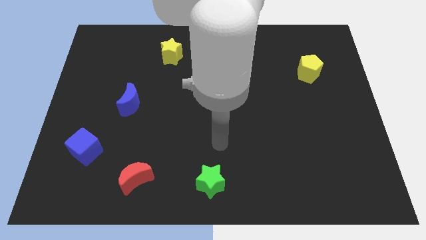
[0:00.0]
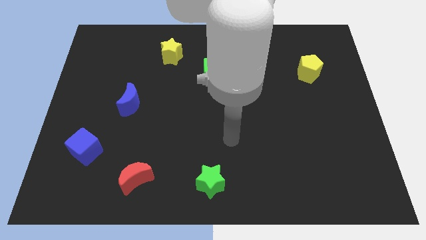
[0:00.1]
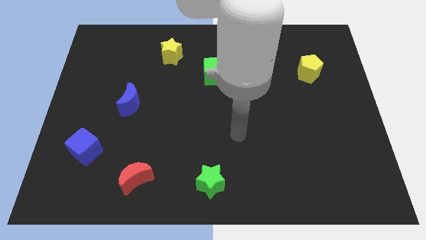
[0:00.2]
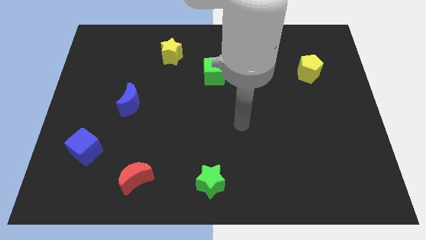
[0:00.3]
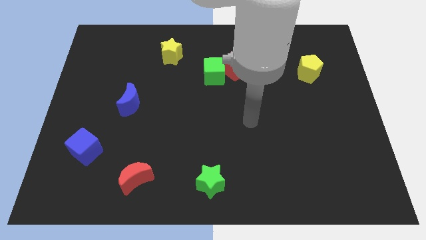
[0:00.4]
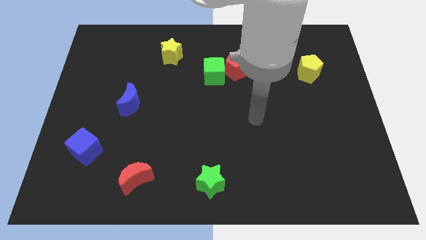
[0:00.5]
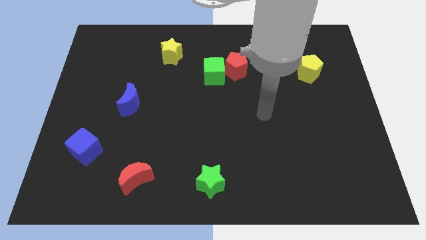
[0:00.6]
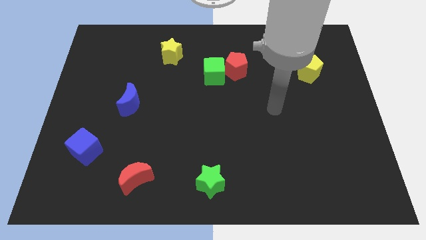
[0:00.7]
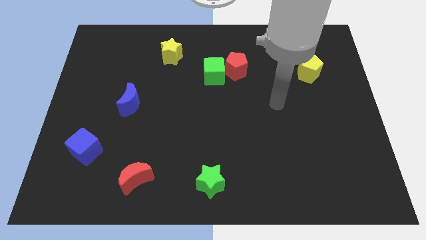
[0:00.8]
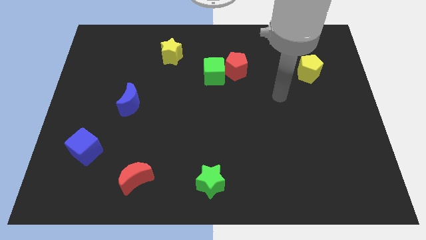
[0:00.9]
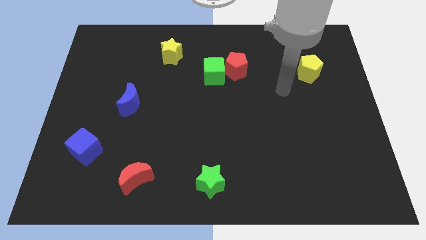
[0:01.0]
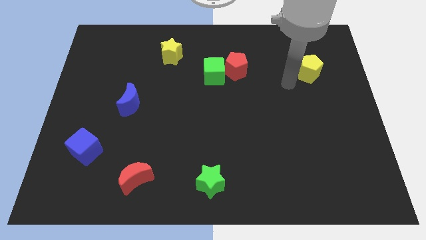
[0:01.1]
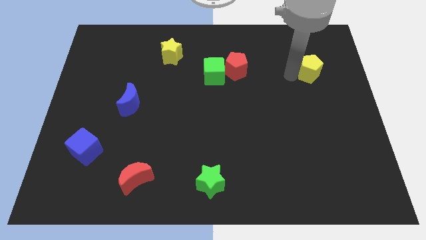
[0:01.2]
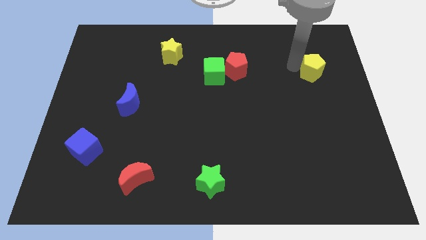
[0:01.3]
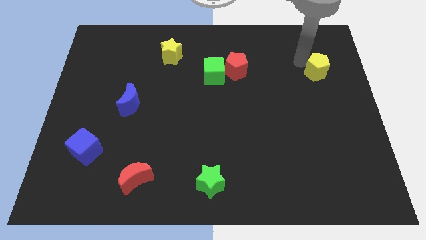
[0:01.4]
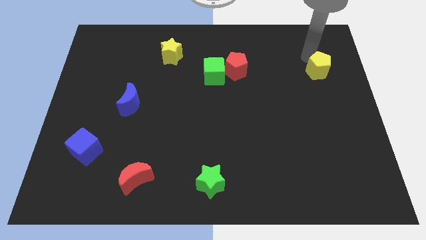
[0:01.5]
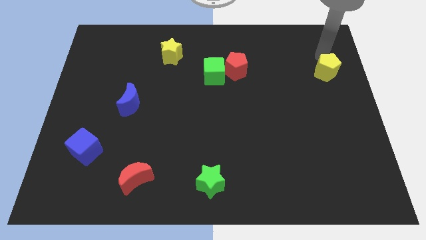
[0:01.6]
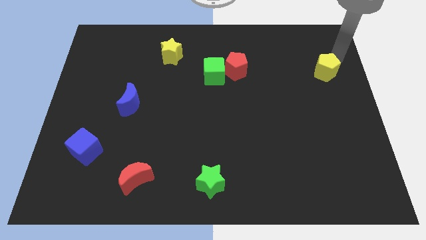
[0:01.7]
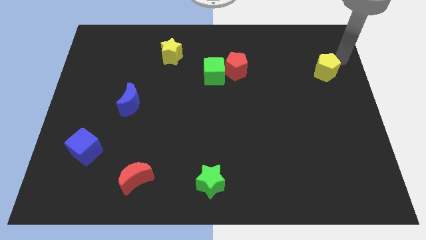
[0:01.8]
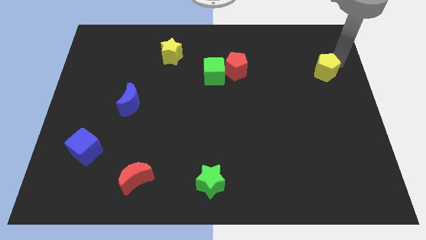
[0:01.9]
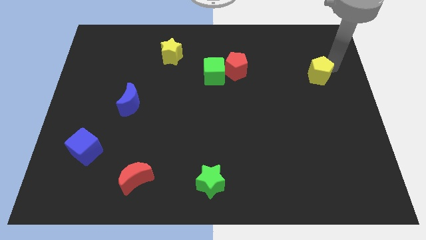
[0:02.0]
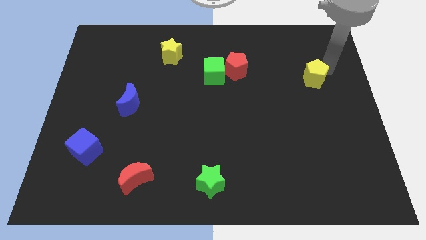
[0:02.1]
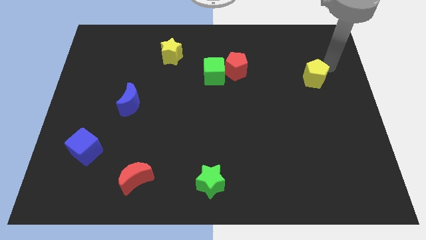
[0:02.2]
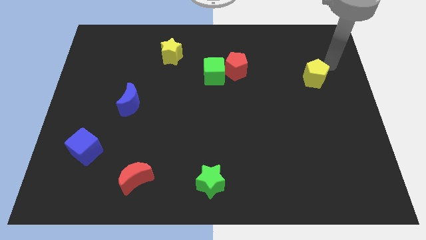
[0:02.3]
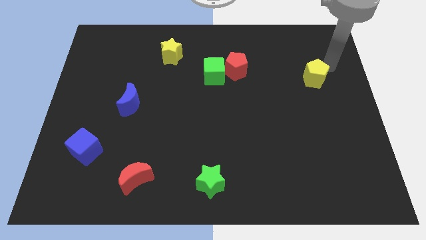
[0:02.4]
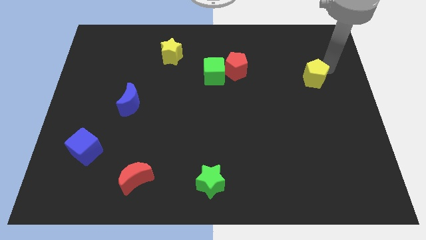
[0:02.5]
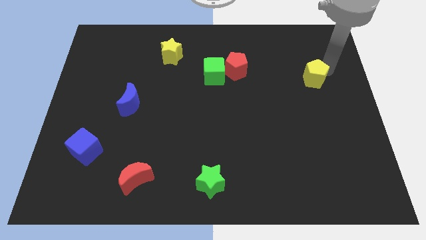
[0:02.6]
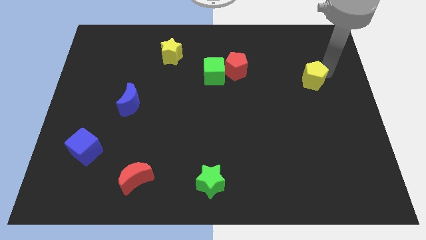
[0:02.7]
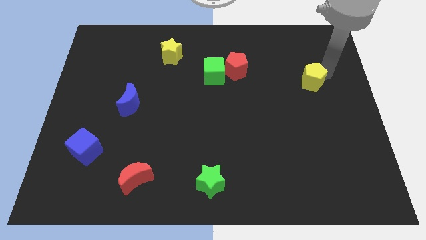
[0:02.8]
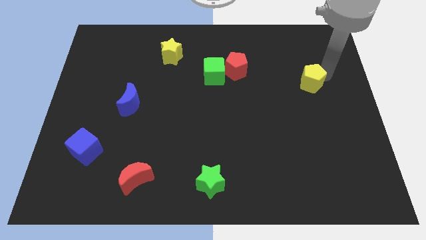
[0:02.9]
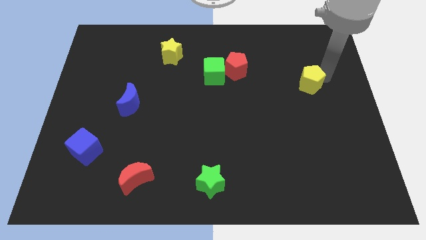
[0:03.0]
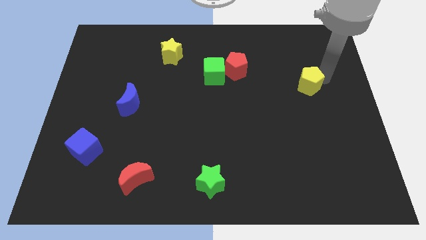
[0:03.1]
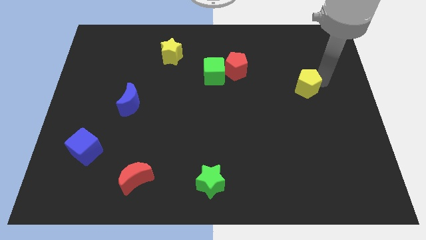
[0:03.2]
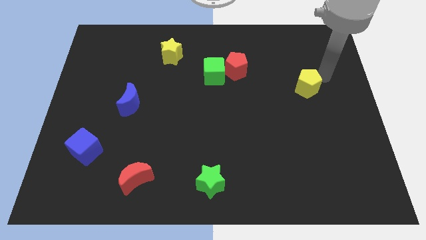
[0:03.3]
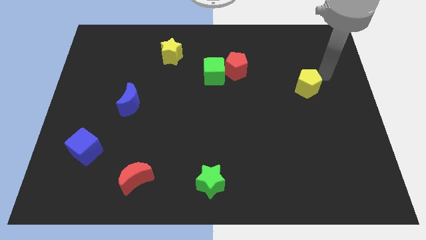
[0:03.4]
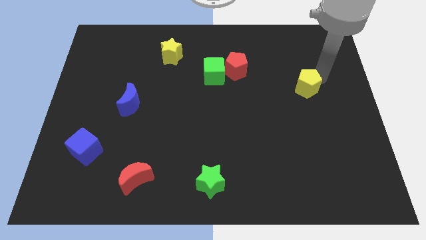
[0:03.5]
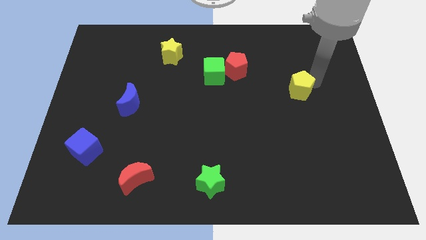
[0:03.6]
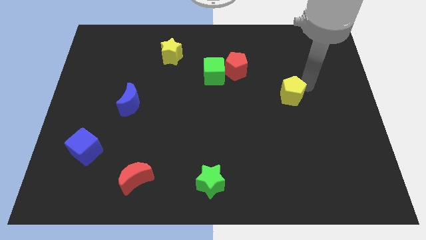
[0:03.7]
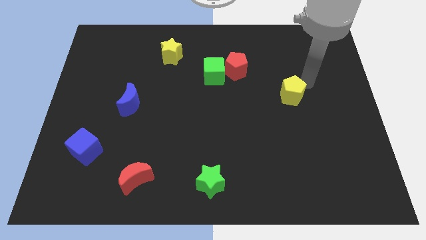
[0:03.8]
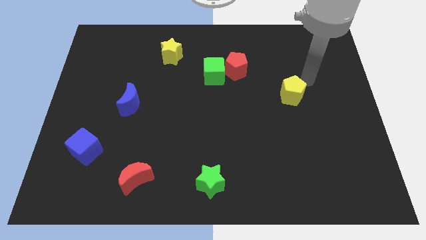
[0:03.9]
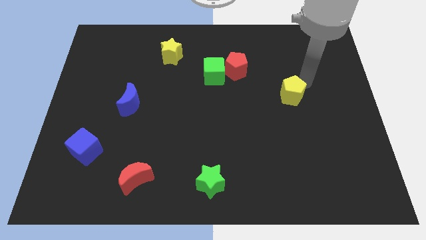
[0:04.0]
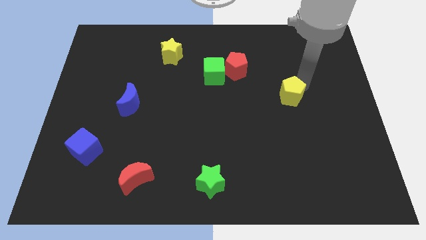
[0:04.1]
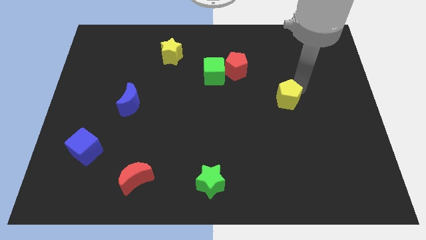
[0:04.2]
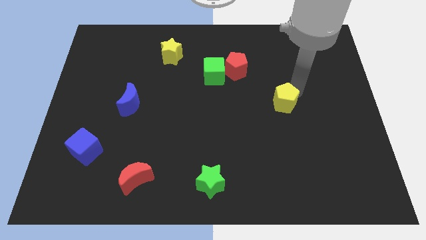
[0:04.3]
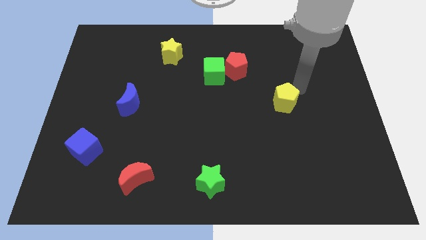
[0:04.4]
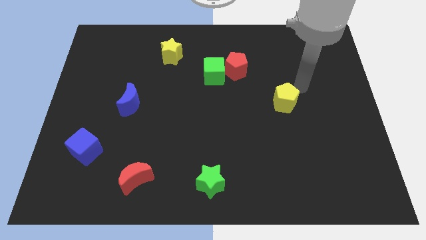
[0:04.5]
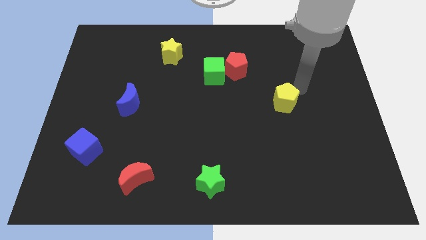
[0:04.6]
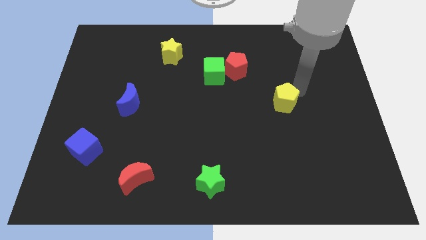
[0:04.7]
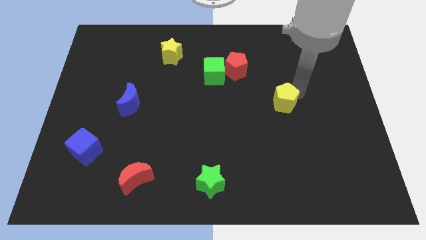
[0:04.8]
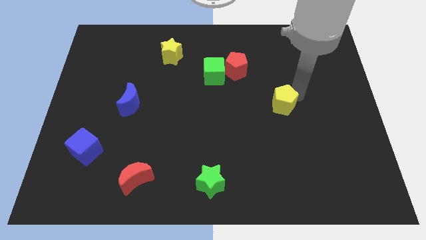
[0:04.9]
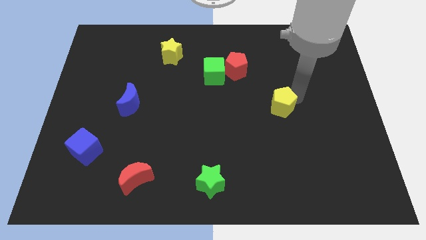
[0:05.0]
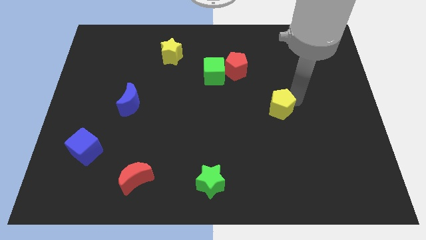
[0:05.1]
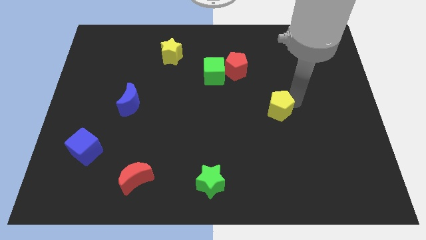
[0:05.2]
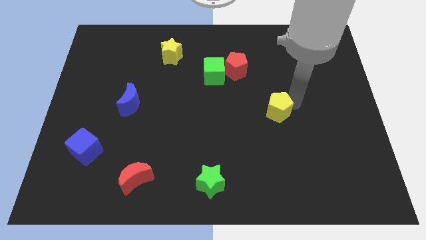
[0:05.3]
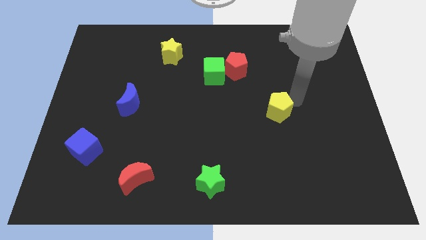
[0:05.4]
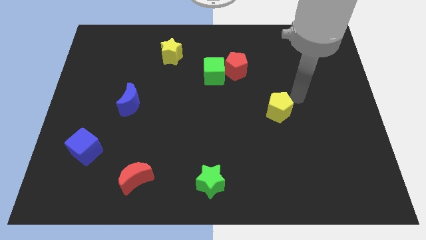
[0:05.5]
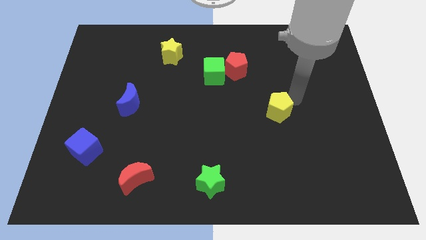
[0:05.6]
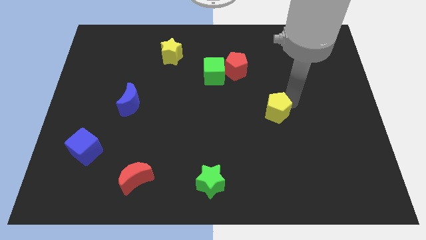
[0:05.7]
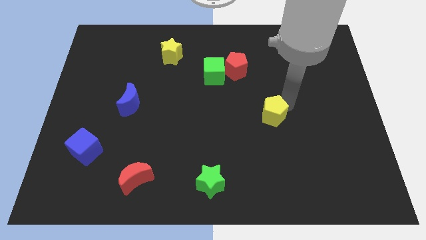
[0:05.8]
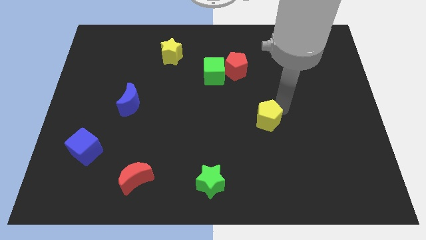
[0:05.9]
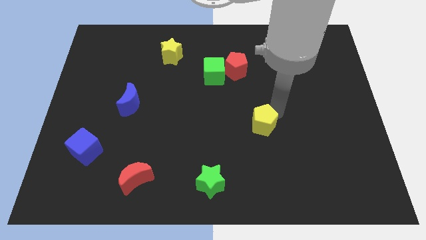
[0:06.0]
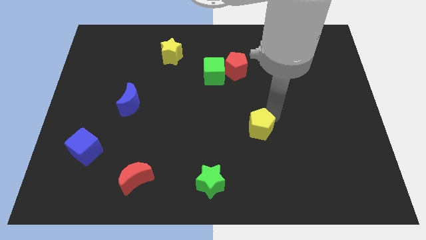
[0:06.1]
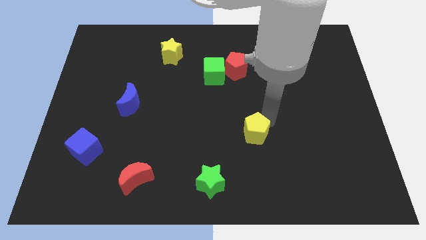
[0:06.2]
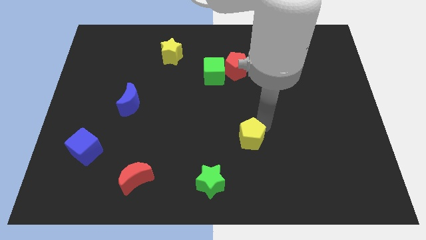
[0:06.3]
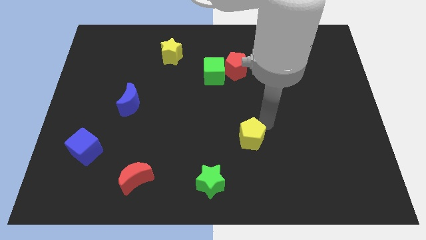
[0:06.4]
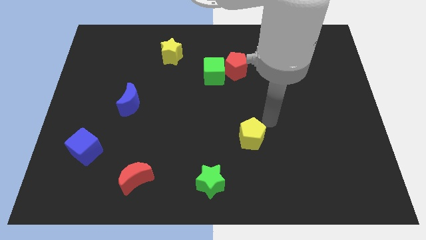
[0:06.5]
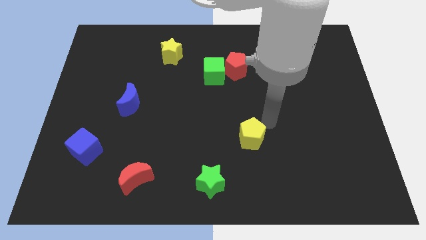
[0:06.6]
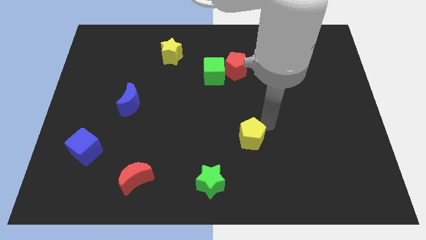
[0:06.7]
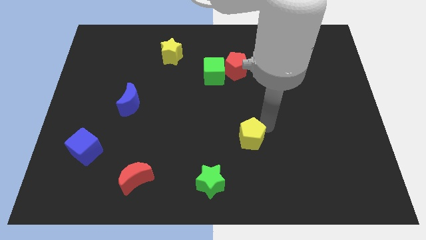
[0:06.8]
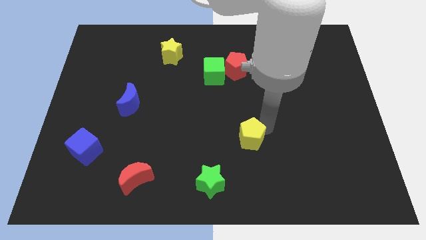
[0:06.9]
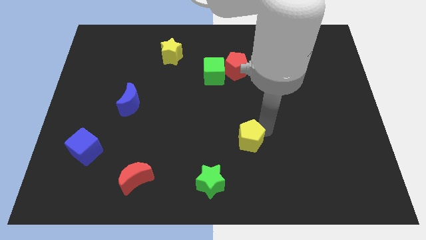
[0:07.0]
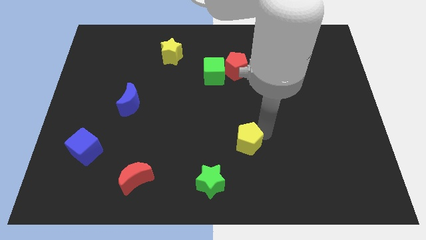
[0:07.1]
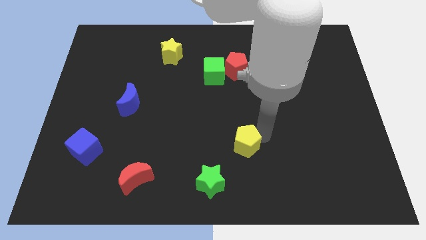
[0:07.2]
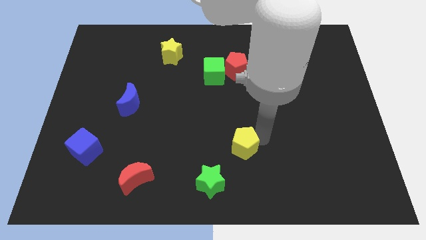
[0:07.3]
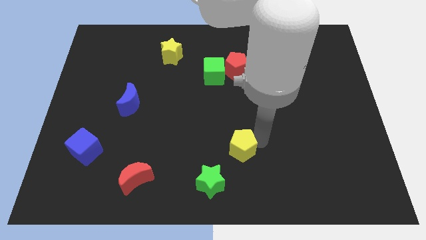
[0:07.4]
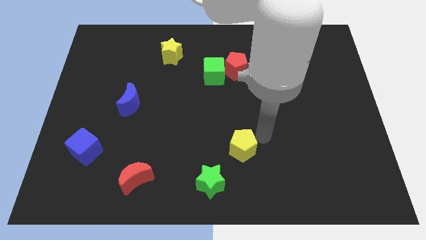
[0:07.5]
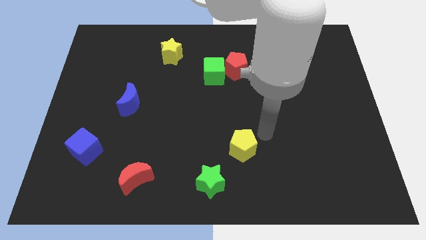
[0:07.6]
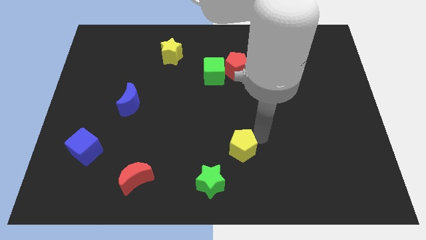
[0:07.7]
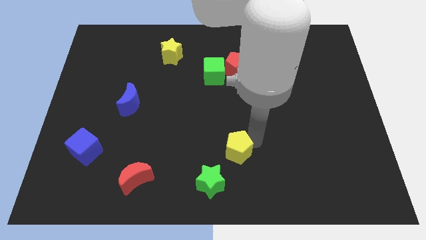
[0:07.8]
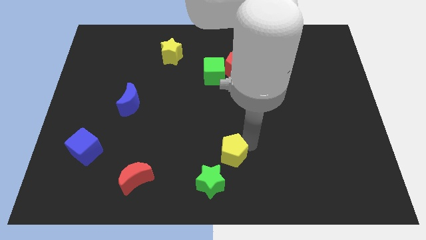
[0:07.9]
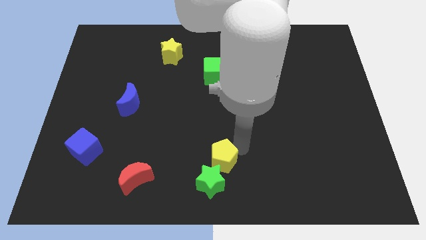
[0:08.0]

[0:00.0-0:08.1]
push the yellow pentagon close to the green star
